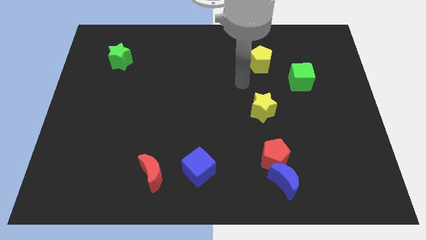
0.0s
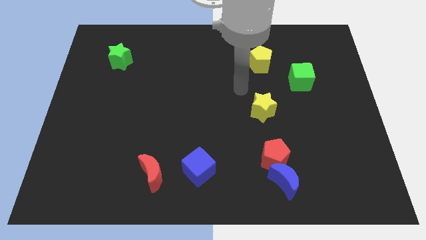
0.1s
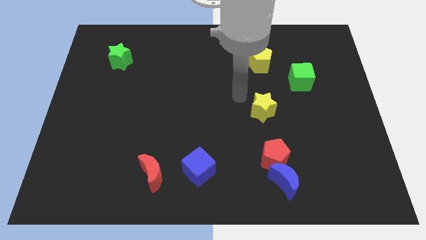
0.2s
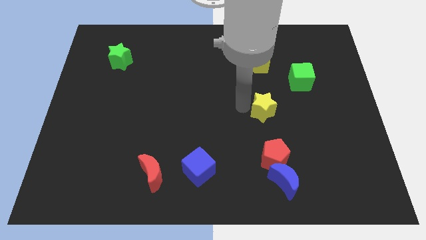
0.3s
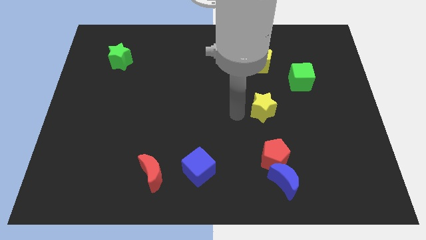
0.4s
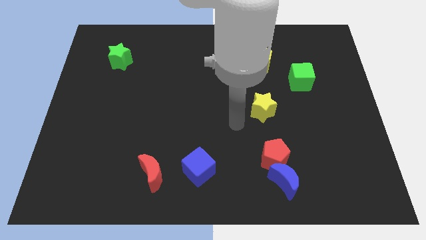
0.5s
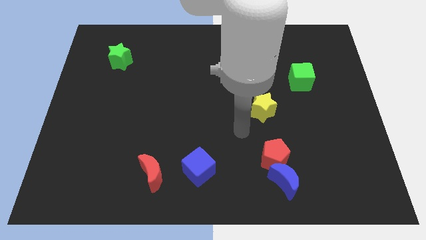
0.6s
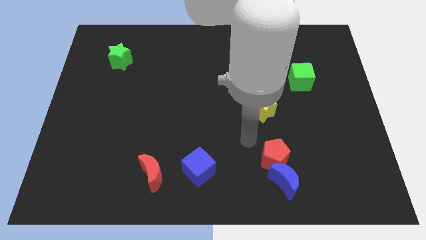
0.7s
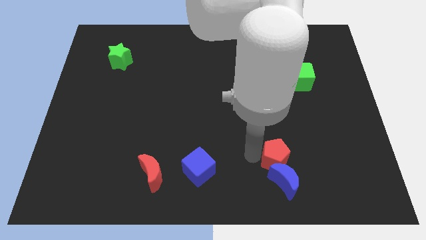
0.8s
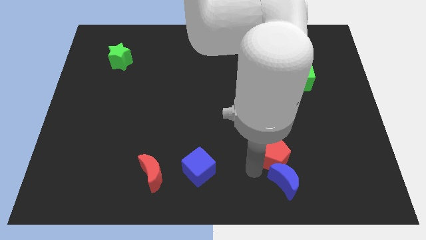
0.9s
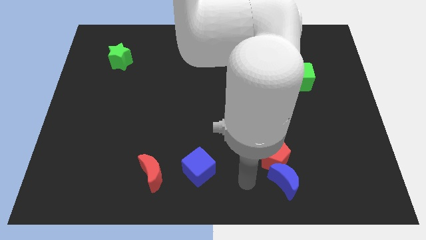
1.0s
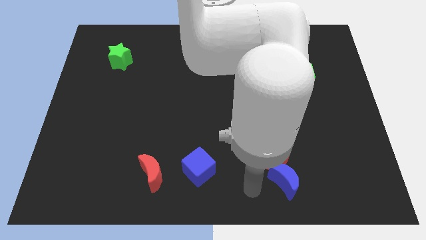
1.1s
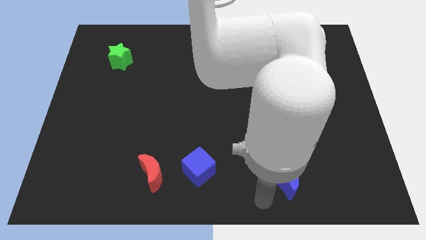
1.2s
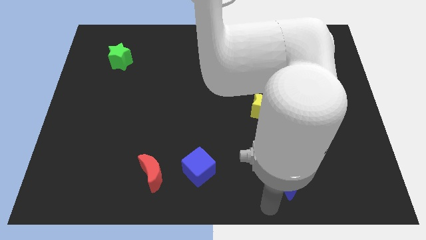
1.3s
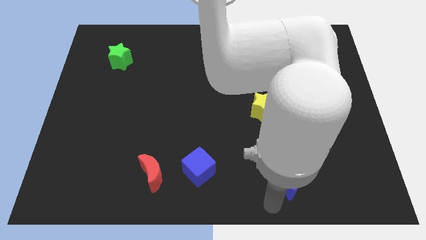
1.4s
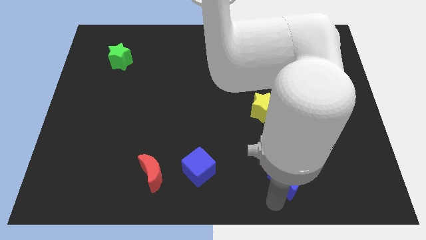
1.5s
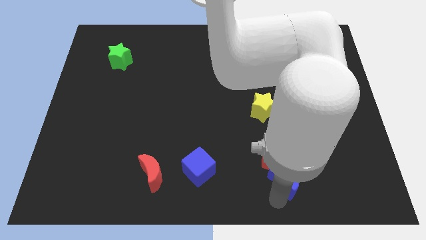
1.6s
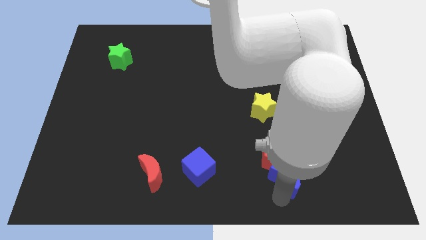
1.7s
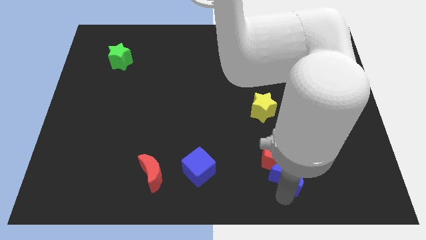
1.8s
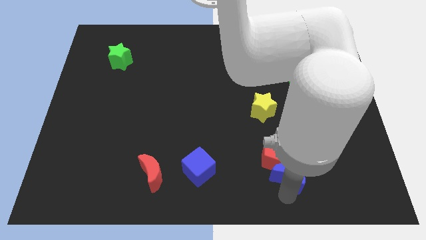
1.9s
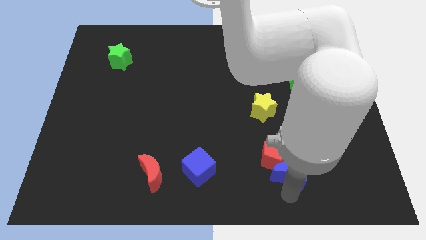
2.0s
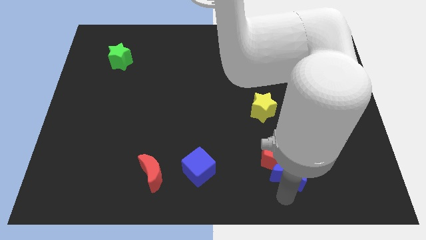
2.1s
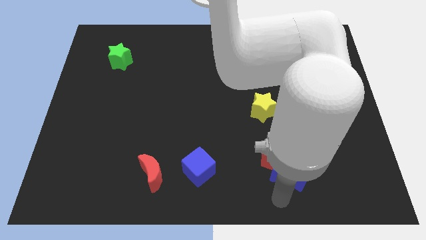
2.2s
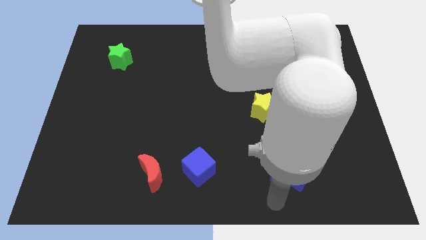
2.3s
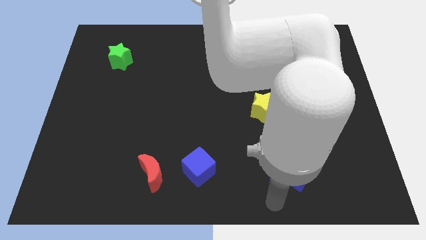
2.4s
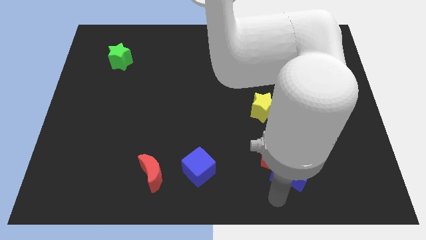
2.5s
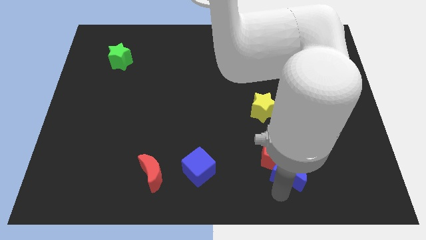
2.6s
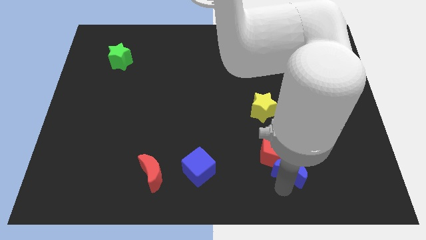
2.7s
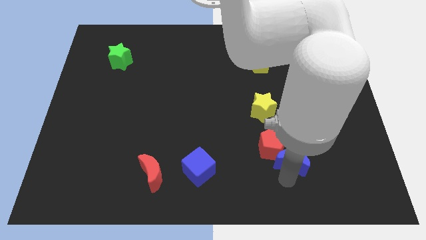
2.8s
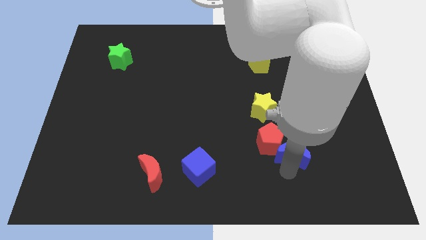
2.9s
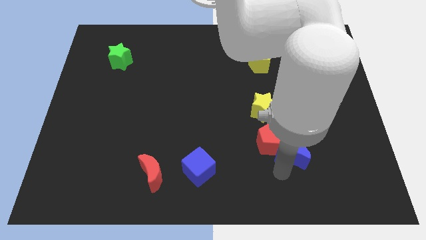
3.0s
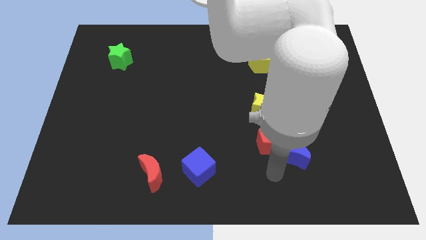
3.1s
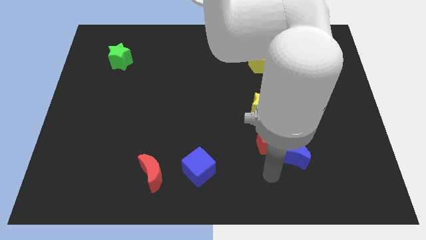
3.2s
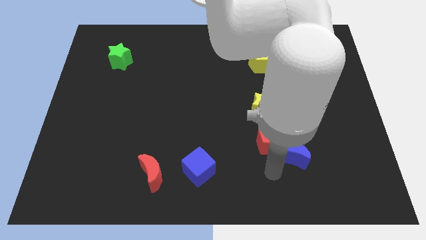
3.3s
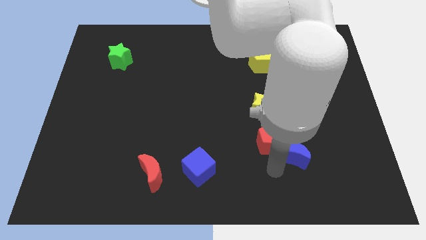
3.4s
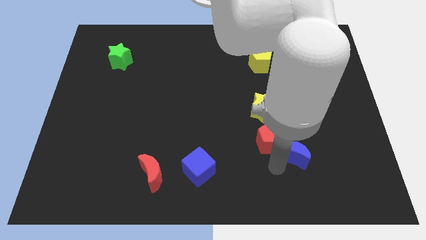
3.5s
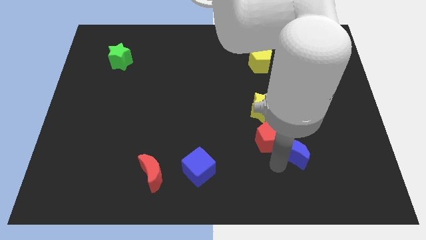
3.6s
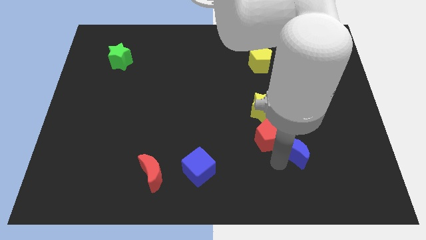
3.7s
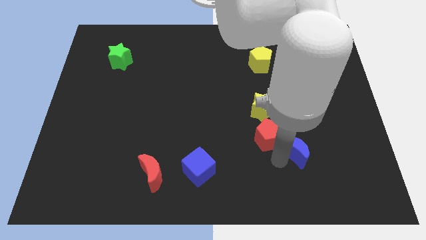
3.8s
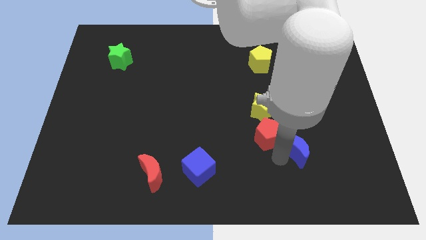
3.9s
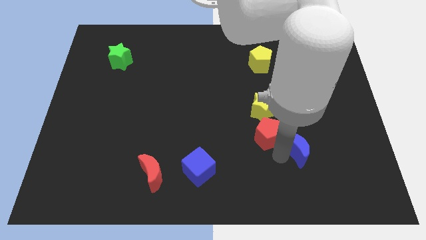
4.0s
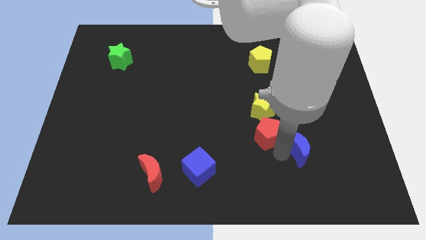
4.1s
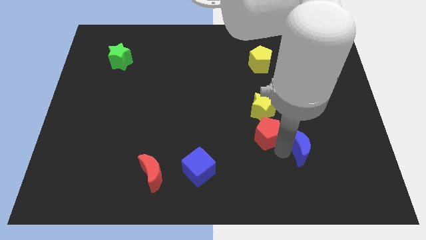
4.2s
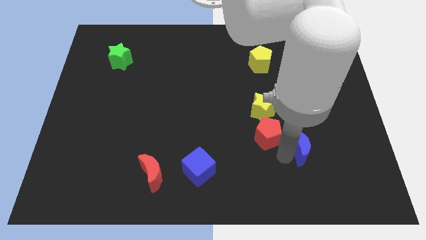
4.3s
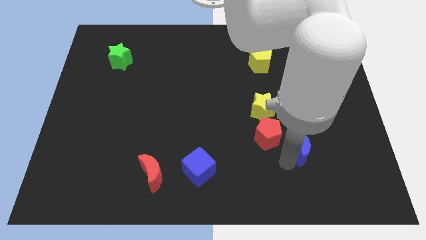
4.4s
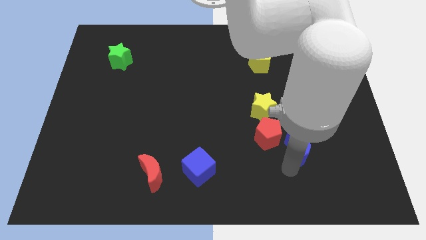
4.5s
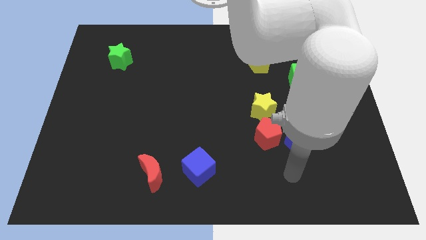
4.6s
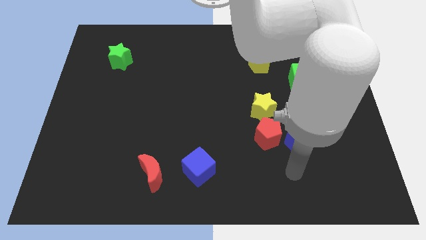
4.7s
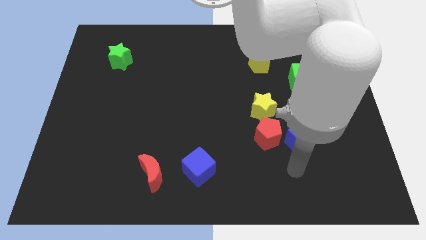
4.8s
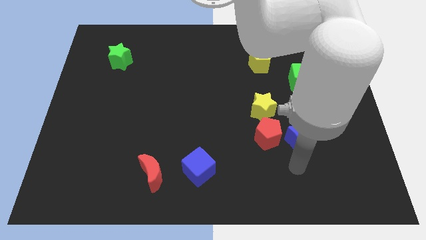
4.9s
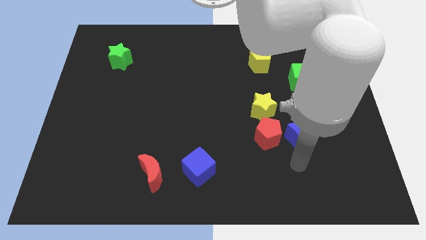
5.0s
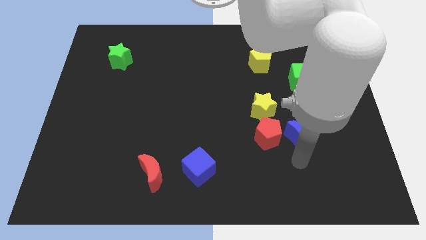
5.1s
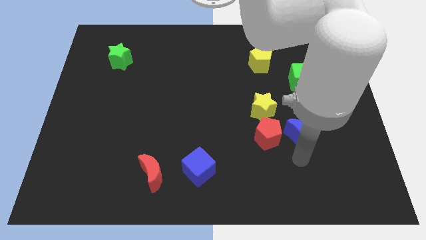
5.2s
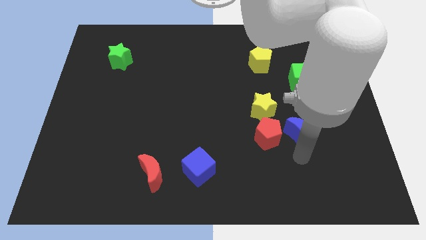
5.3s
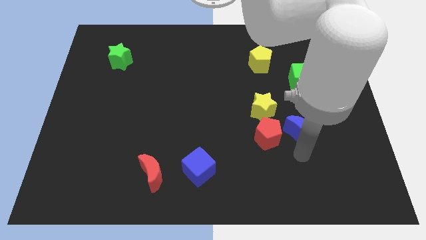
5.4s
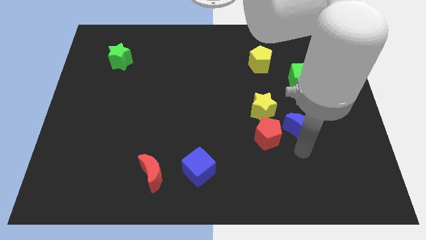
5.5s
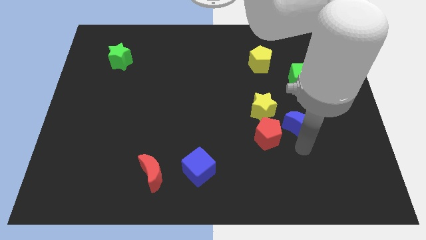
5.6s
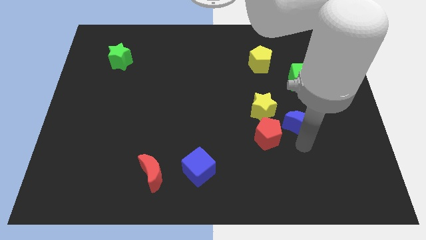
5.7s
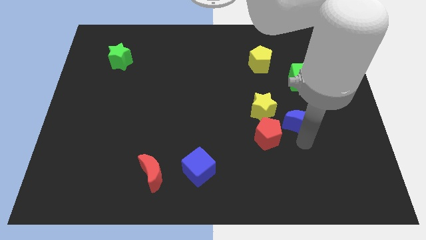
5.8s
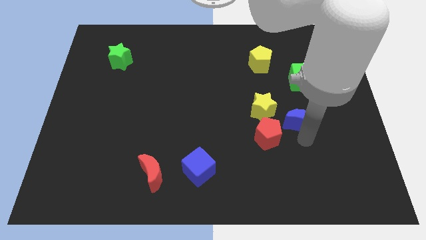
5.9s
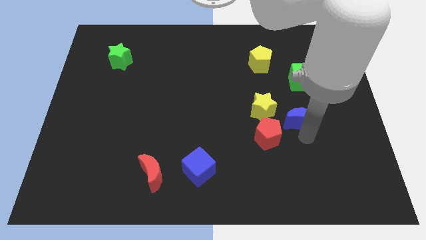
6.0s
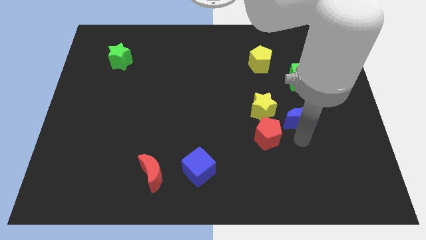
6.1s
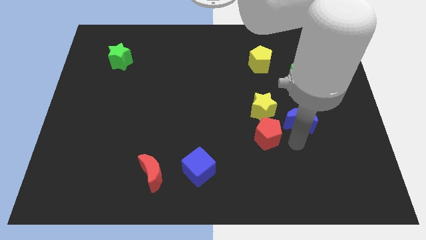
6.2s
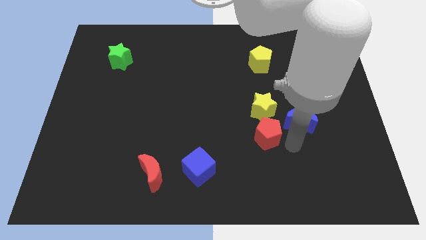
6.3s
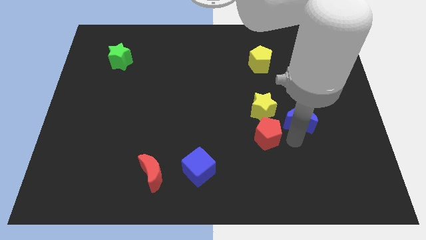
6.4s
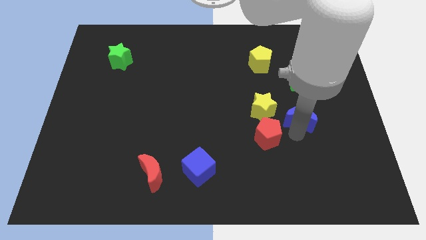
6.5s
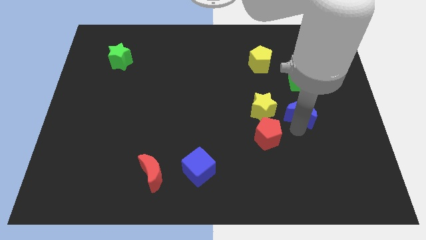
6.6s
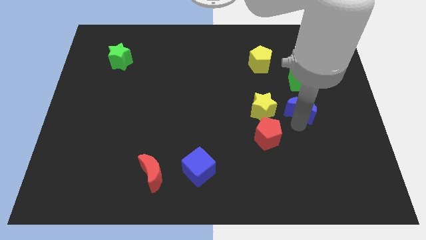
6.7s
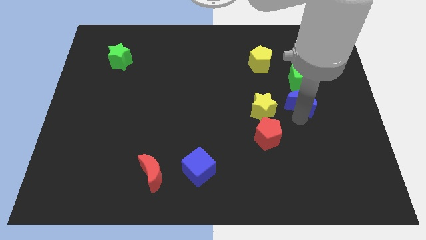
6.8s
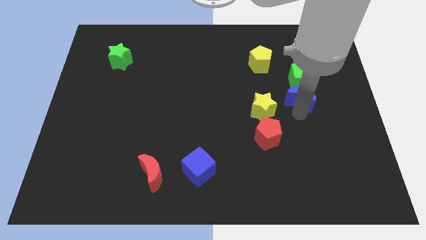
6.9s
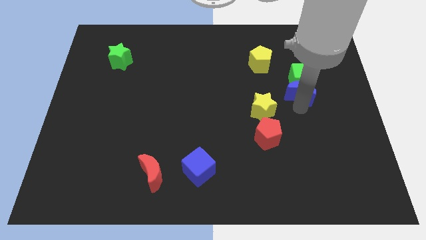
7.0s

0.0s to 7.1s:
move the blue moon towards the green cube

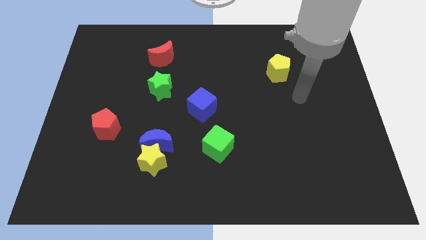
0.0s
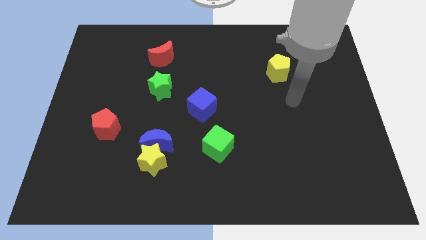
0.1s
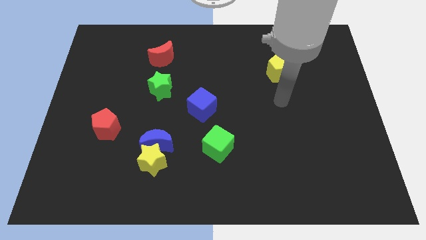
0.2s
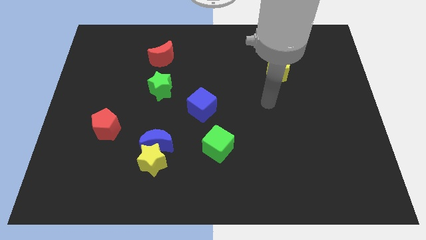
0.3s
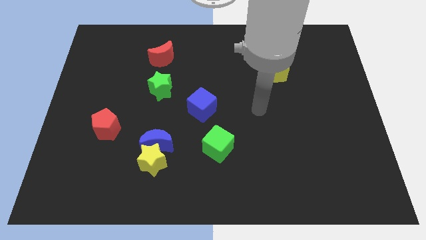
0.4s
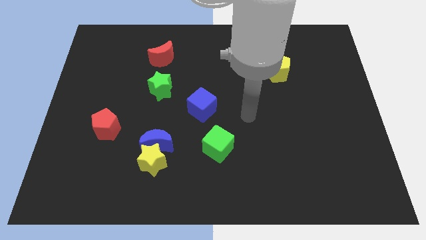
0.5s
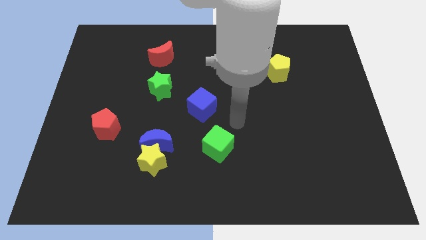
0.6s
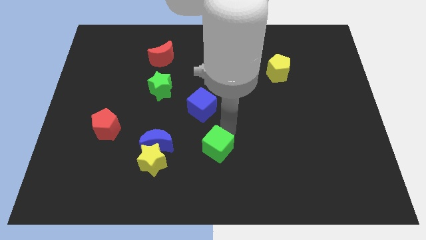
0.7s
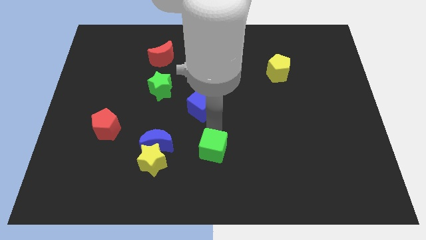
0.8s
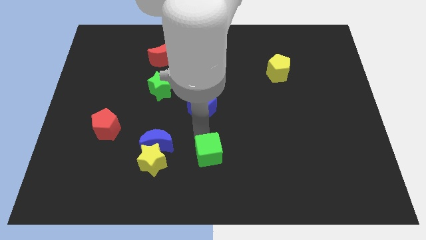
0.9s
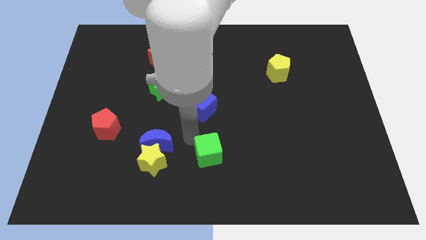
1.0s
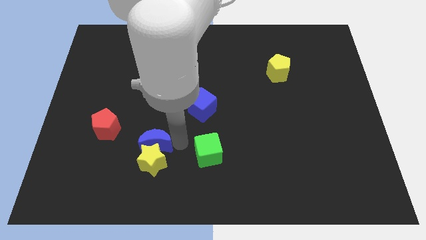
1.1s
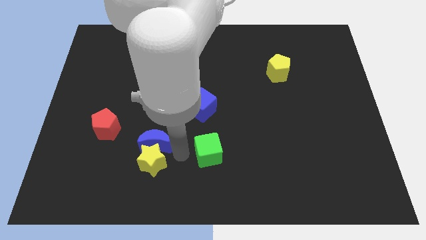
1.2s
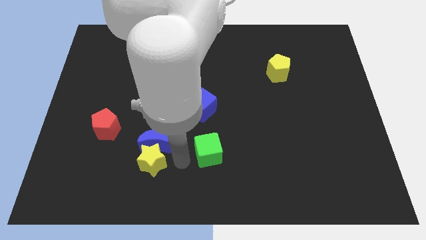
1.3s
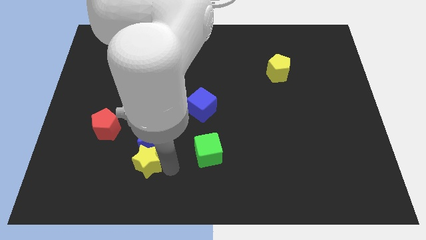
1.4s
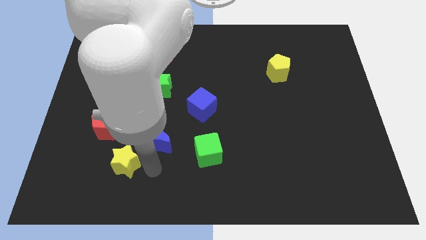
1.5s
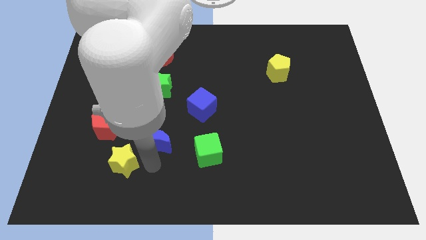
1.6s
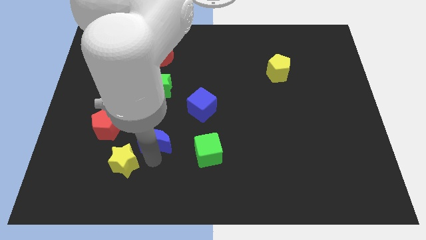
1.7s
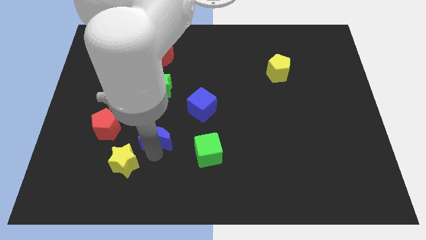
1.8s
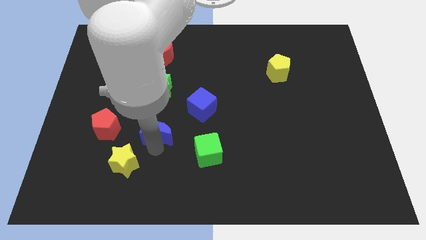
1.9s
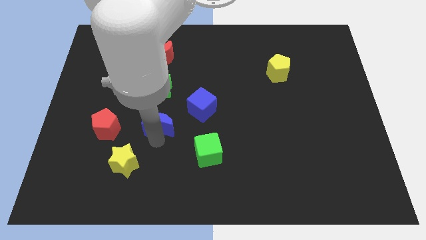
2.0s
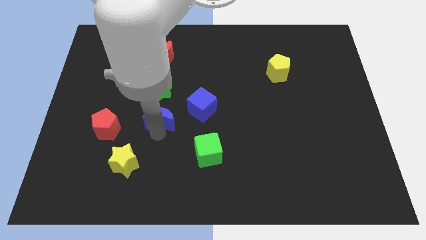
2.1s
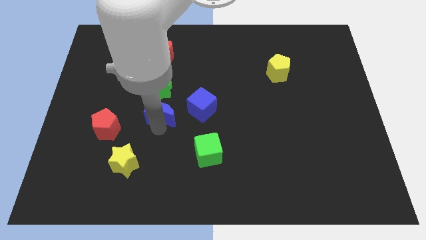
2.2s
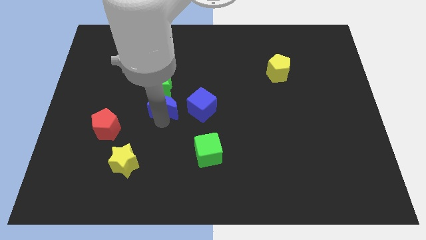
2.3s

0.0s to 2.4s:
slide the blue moon close to the green star
